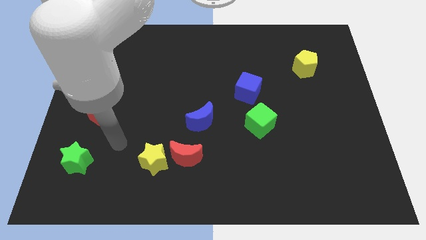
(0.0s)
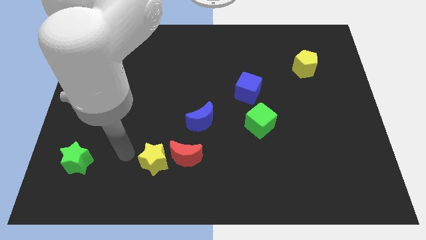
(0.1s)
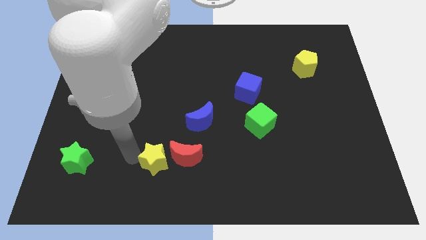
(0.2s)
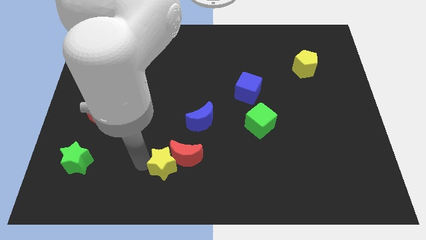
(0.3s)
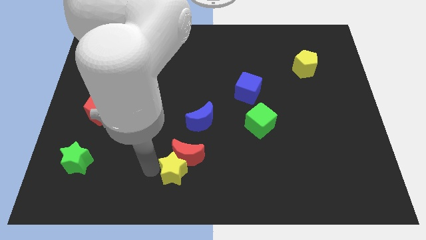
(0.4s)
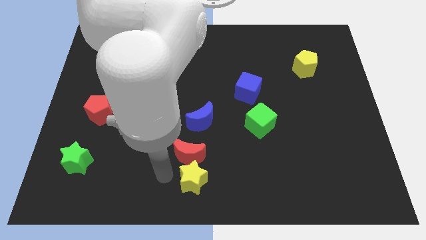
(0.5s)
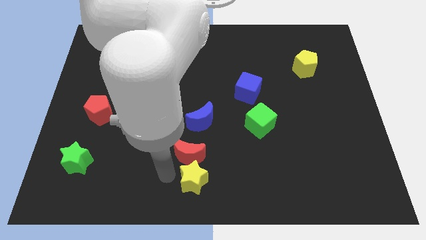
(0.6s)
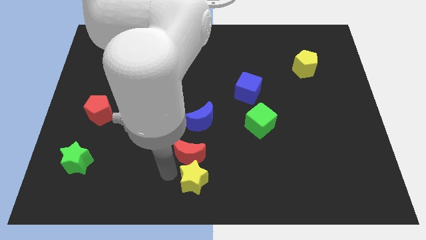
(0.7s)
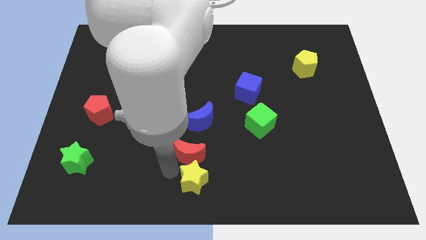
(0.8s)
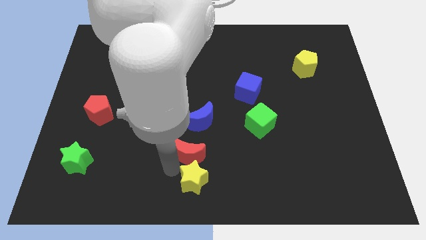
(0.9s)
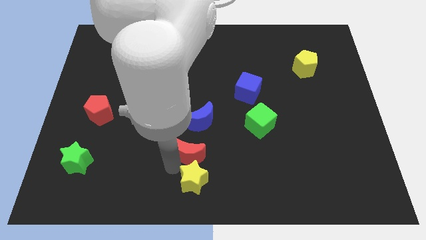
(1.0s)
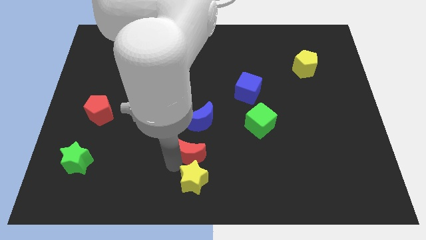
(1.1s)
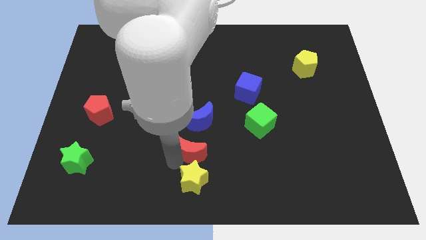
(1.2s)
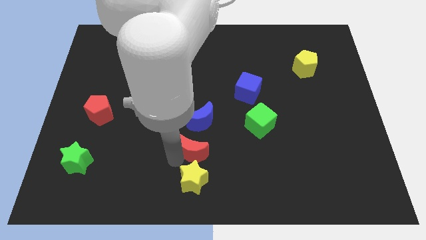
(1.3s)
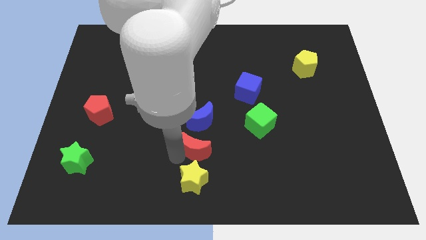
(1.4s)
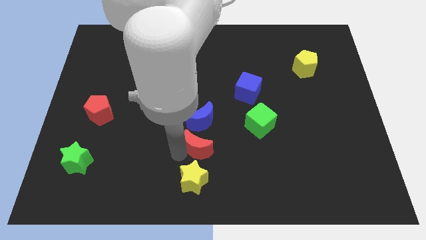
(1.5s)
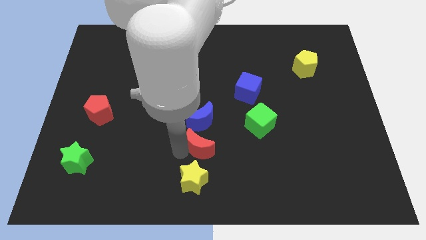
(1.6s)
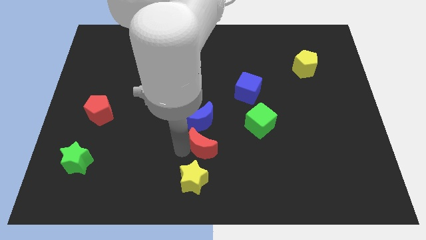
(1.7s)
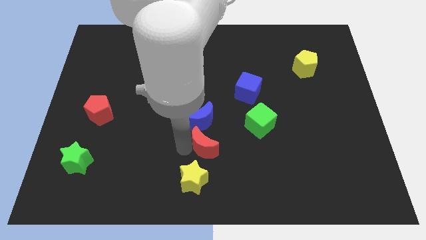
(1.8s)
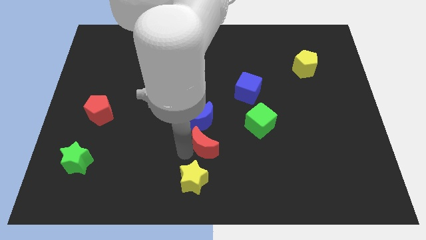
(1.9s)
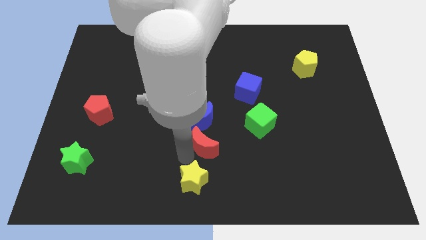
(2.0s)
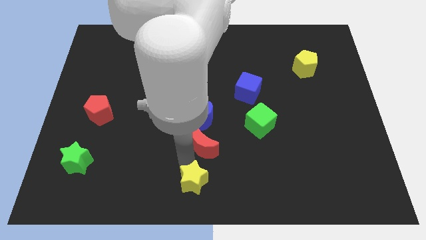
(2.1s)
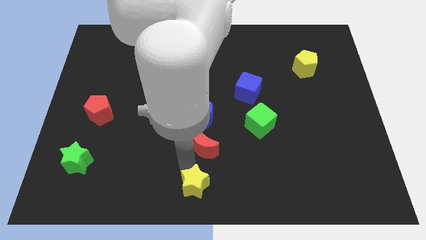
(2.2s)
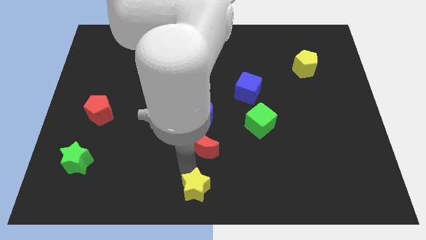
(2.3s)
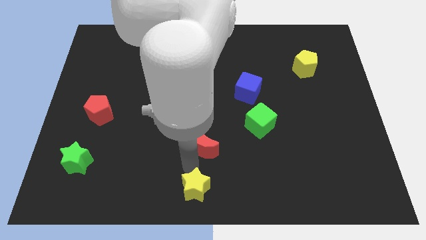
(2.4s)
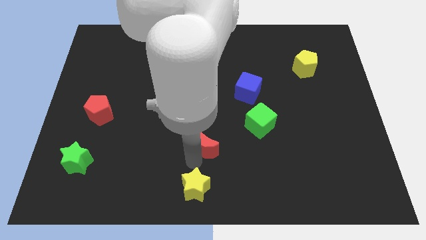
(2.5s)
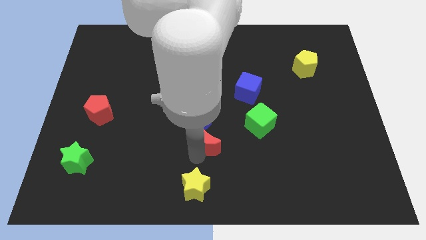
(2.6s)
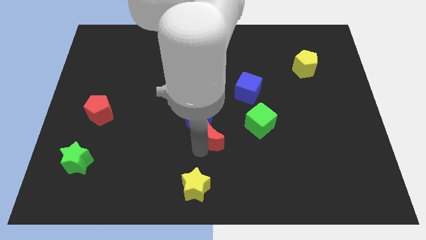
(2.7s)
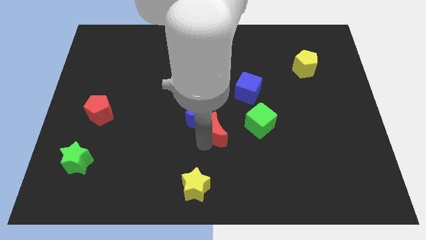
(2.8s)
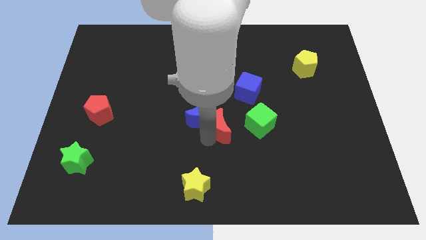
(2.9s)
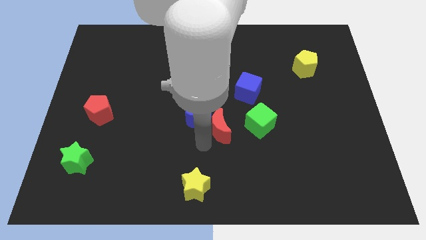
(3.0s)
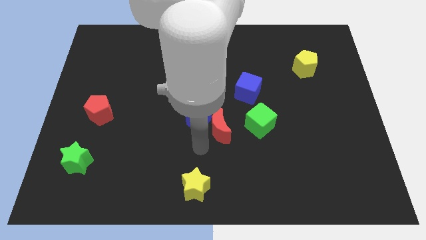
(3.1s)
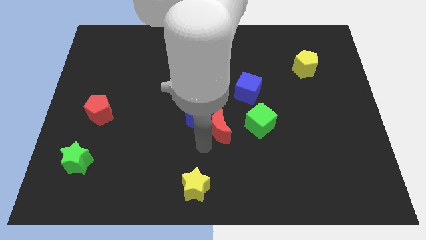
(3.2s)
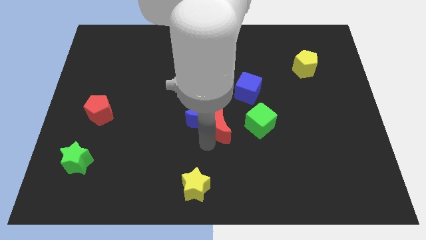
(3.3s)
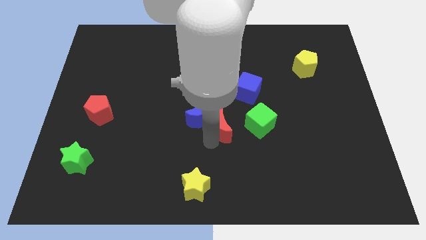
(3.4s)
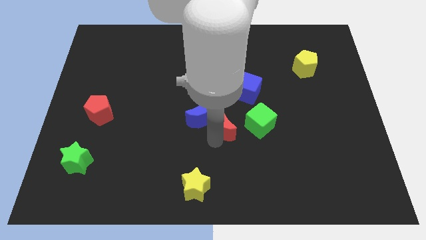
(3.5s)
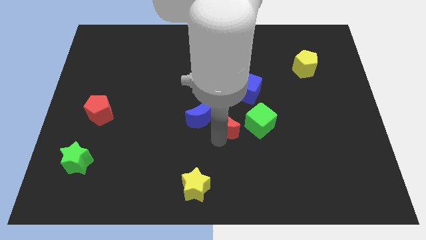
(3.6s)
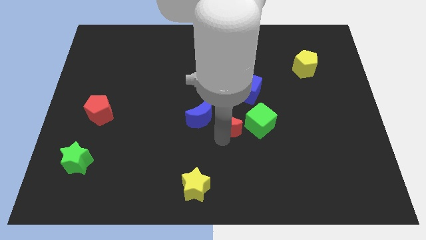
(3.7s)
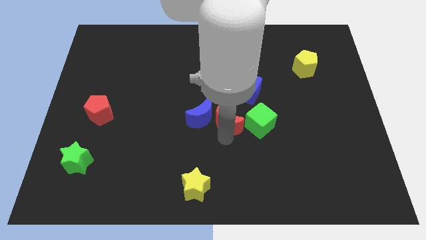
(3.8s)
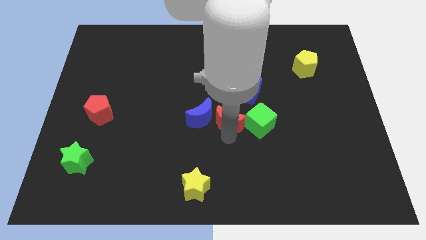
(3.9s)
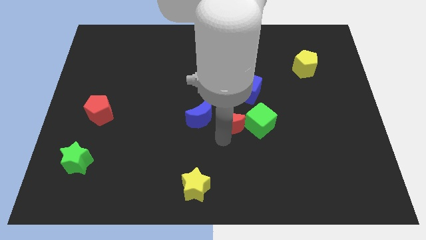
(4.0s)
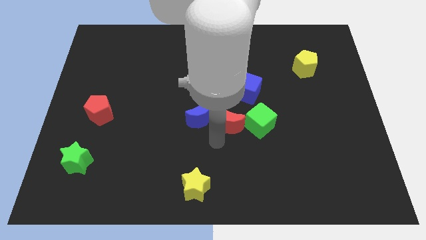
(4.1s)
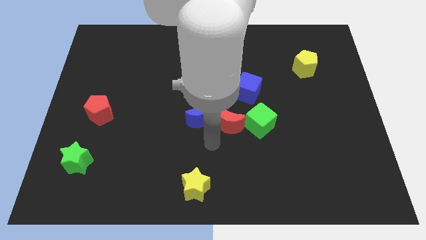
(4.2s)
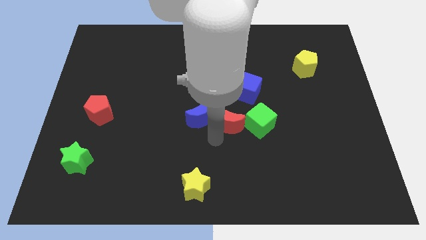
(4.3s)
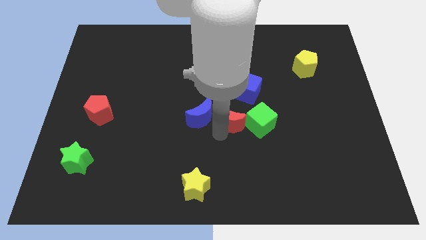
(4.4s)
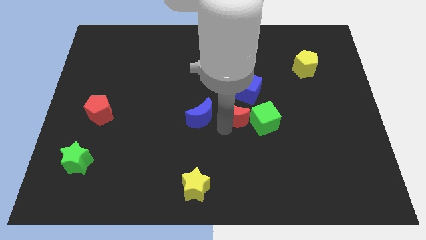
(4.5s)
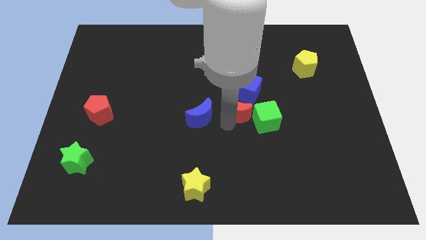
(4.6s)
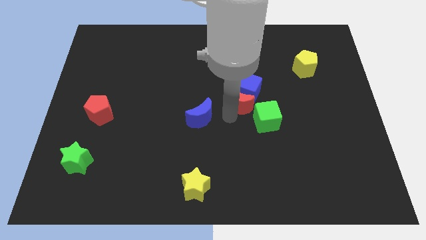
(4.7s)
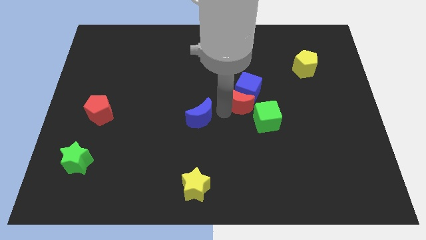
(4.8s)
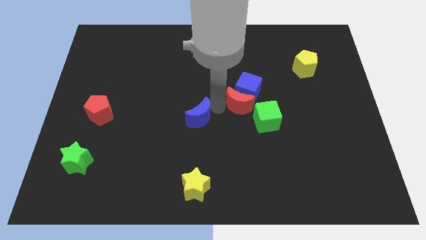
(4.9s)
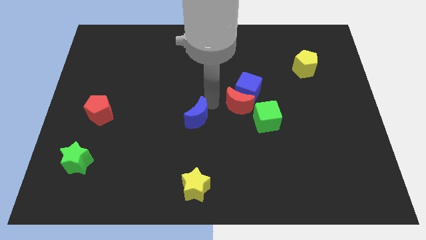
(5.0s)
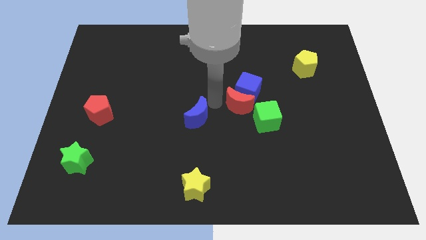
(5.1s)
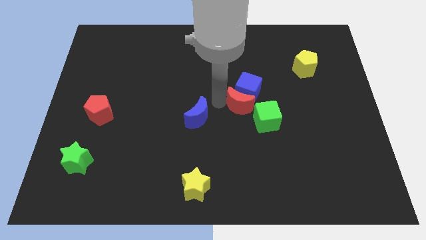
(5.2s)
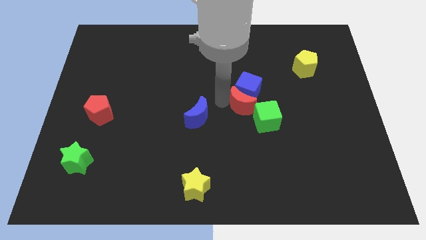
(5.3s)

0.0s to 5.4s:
slide the red moon to the bottom right side of the blue cube
